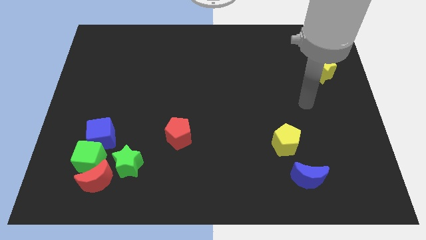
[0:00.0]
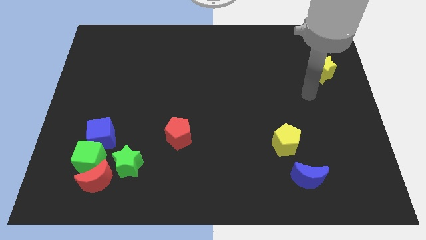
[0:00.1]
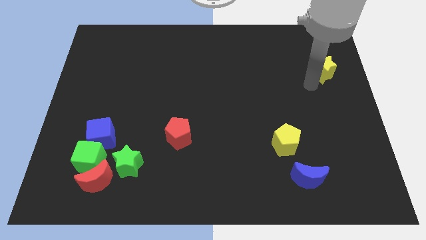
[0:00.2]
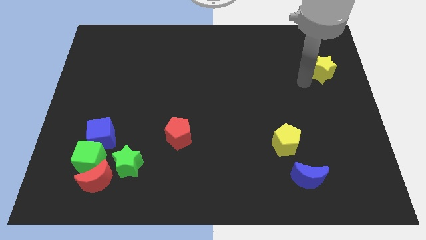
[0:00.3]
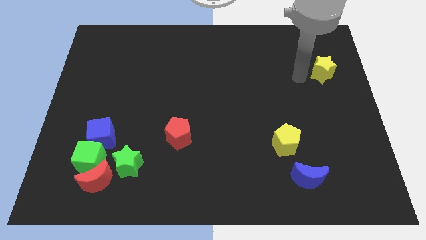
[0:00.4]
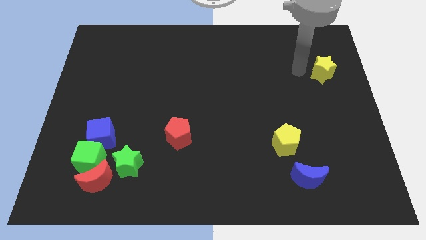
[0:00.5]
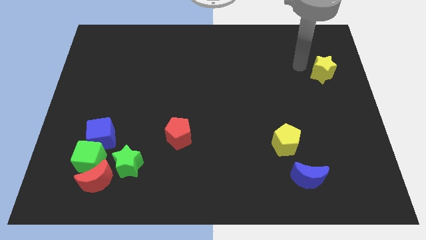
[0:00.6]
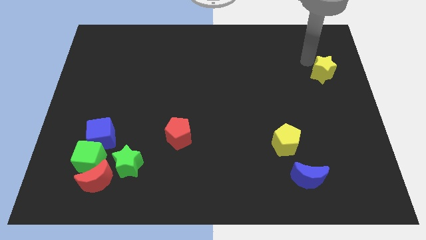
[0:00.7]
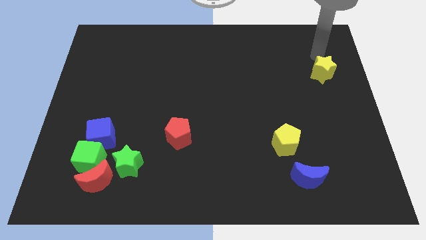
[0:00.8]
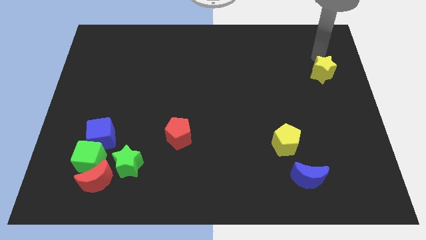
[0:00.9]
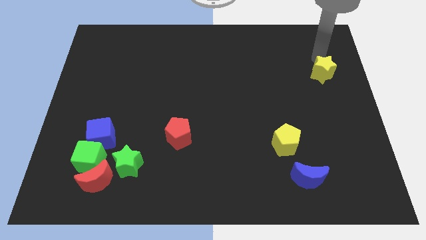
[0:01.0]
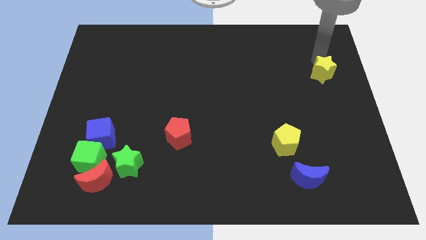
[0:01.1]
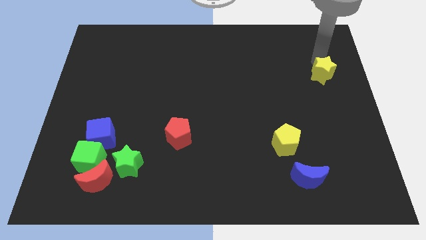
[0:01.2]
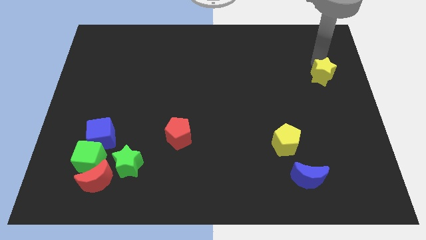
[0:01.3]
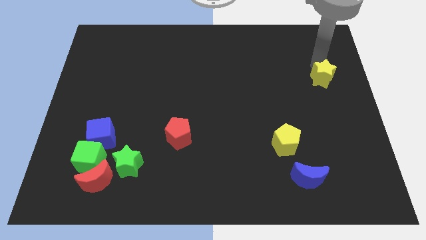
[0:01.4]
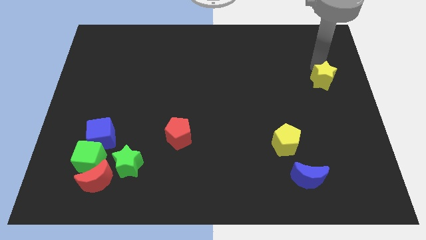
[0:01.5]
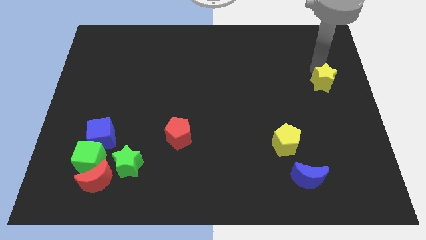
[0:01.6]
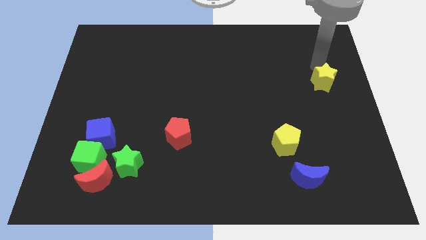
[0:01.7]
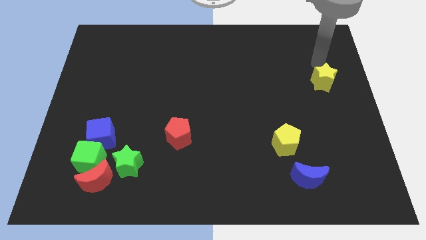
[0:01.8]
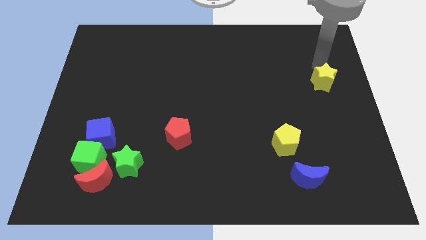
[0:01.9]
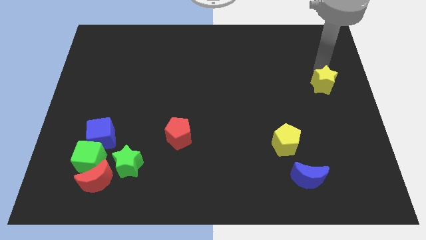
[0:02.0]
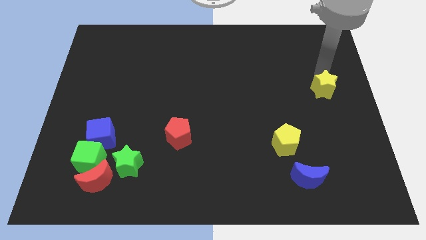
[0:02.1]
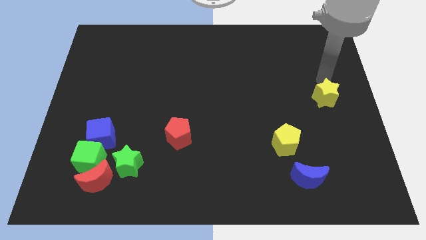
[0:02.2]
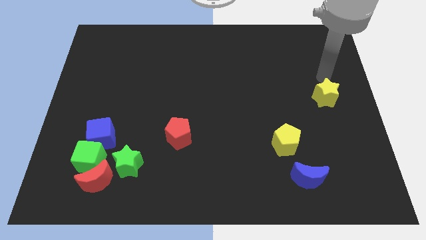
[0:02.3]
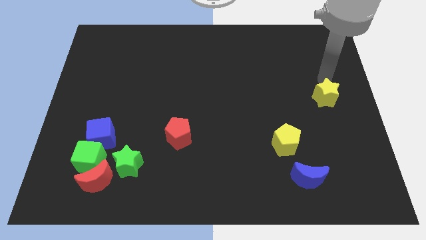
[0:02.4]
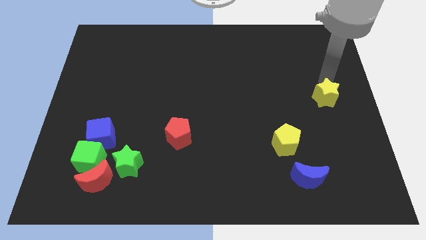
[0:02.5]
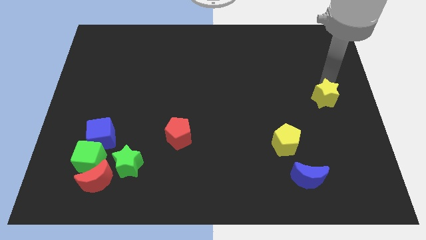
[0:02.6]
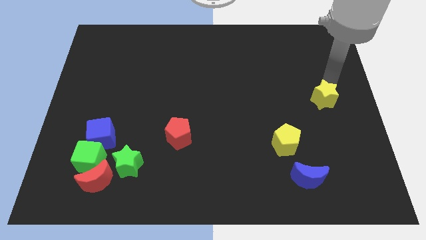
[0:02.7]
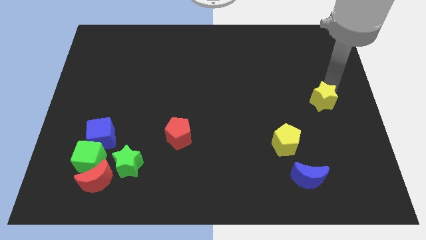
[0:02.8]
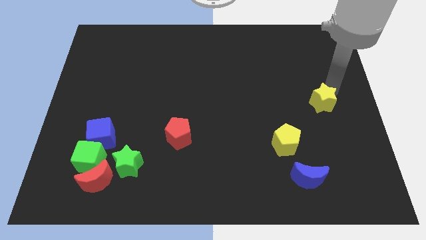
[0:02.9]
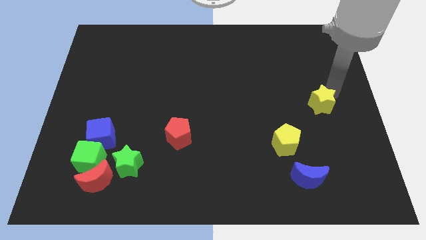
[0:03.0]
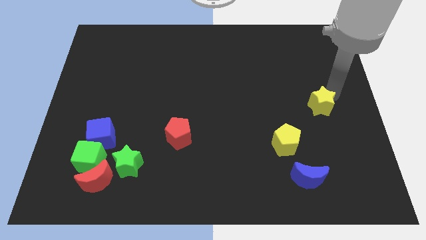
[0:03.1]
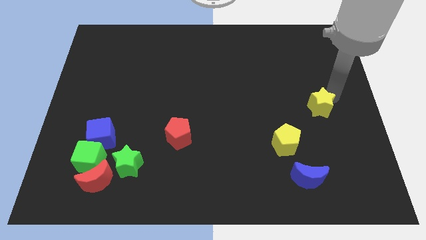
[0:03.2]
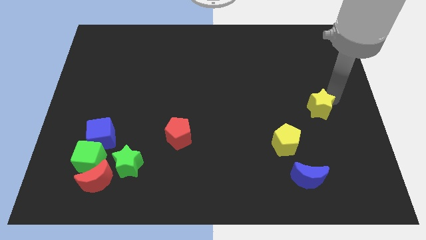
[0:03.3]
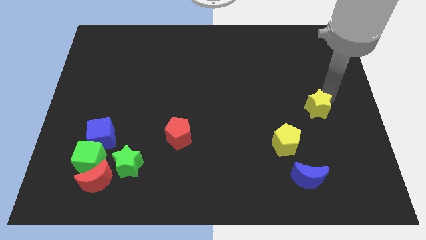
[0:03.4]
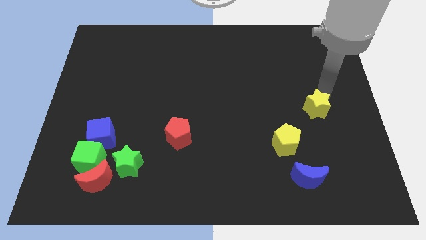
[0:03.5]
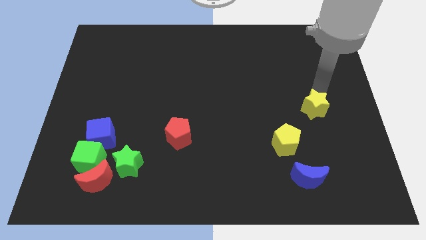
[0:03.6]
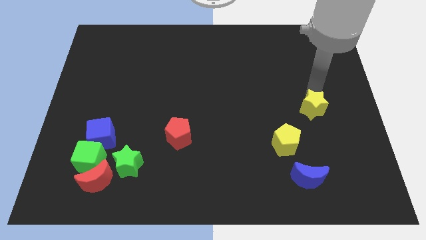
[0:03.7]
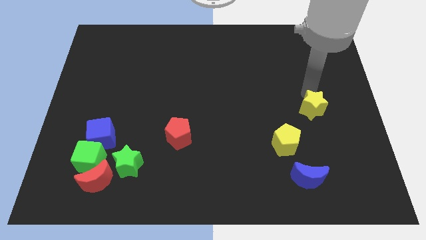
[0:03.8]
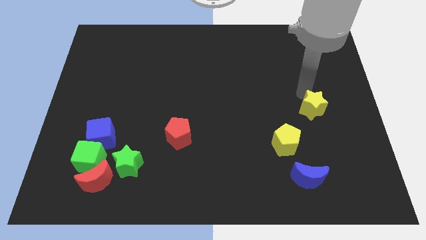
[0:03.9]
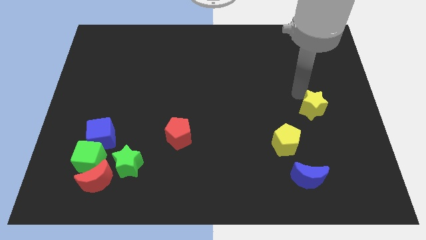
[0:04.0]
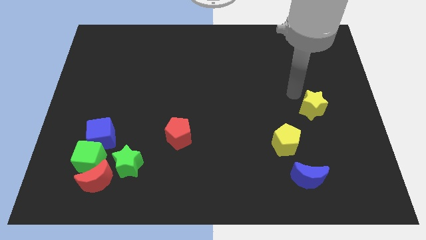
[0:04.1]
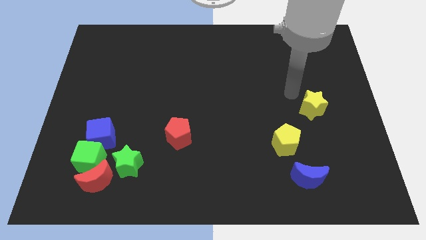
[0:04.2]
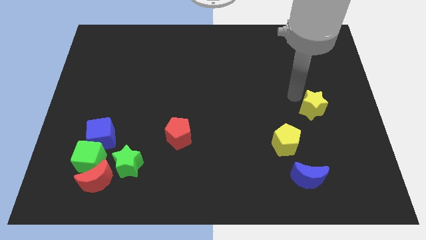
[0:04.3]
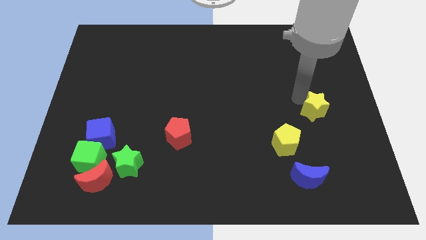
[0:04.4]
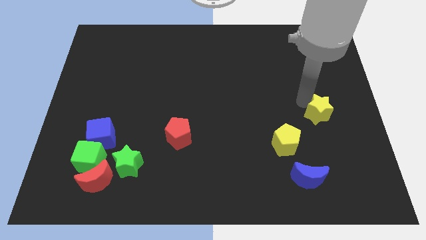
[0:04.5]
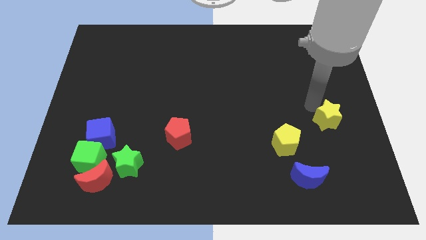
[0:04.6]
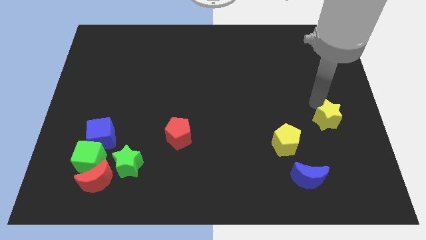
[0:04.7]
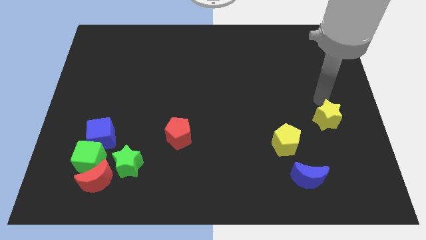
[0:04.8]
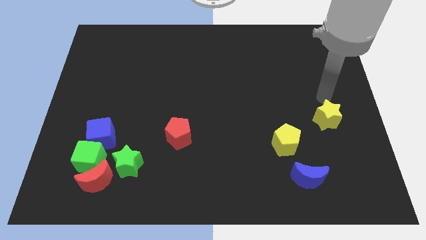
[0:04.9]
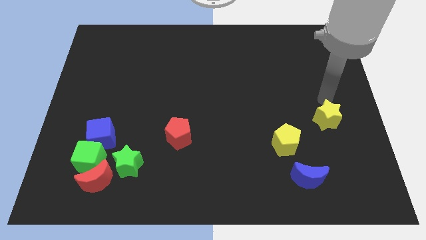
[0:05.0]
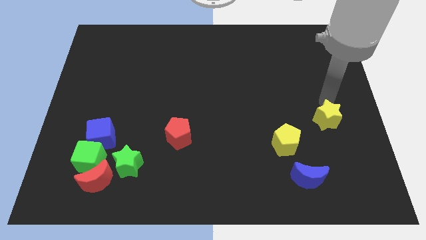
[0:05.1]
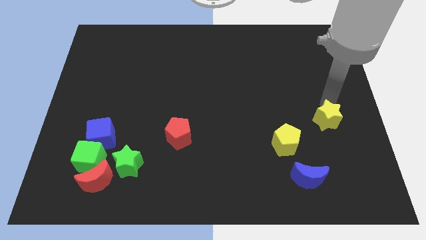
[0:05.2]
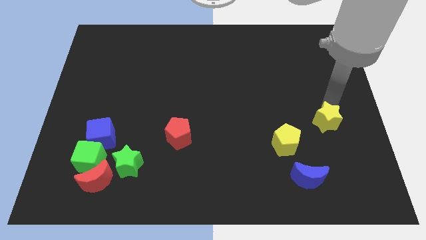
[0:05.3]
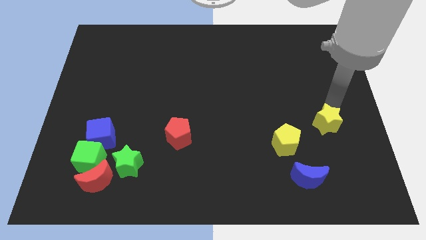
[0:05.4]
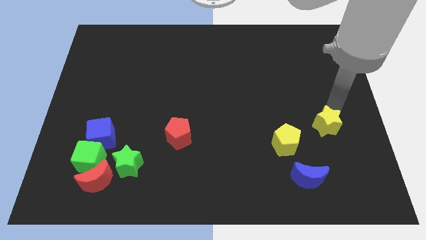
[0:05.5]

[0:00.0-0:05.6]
put the yellow star to the right side of the yellow pentagon

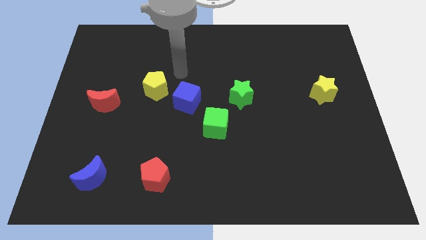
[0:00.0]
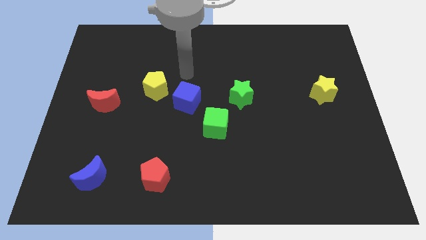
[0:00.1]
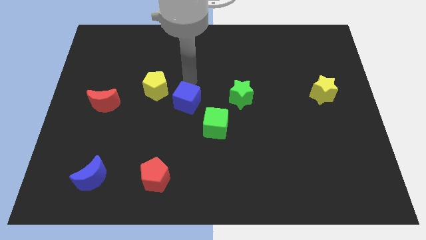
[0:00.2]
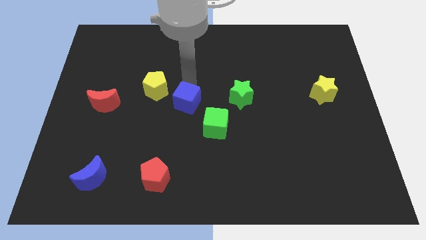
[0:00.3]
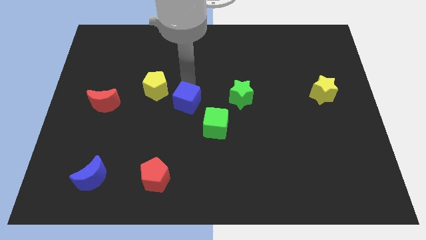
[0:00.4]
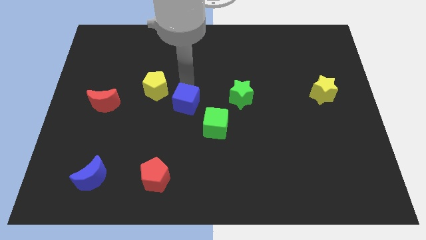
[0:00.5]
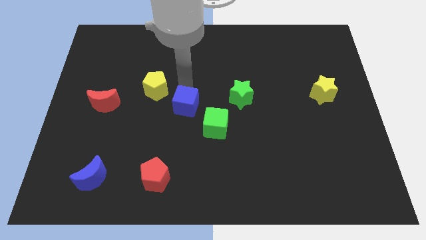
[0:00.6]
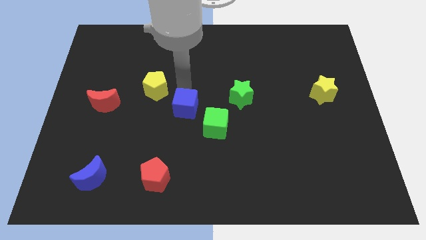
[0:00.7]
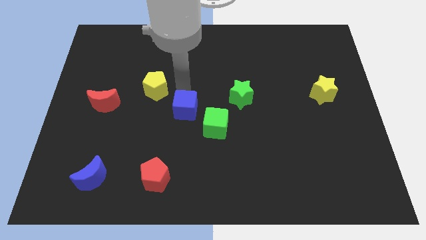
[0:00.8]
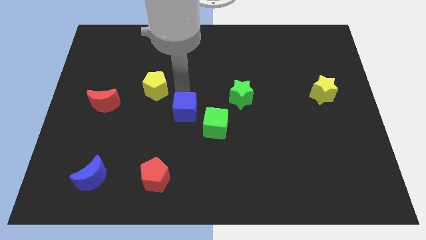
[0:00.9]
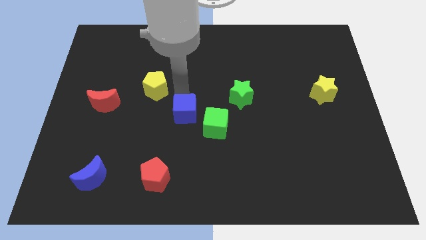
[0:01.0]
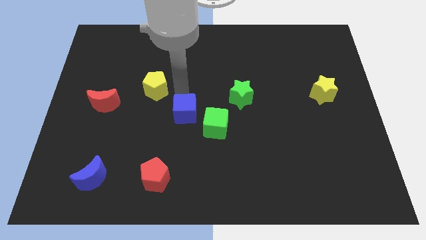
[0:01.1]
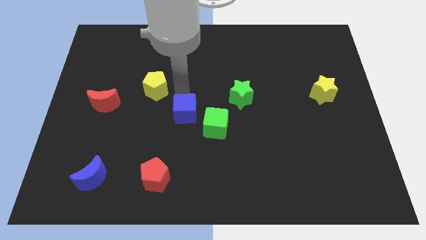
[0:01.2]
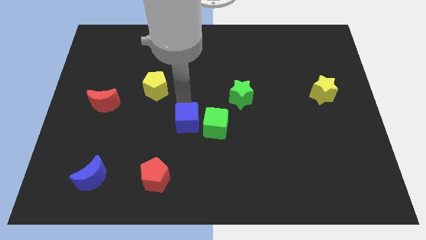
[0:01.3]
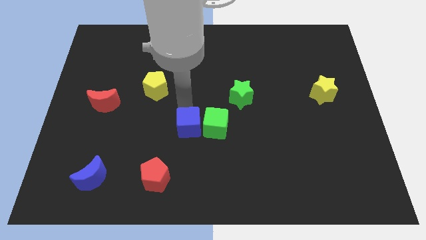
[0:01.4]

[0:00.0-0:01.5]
put the blue cube to the bottom left of the green cube
